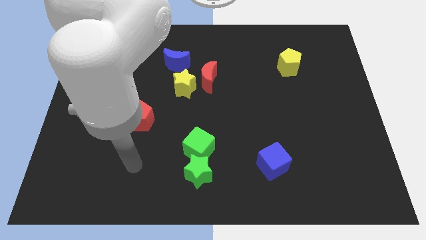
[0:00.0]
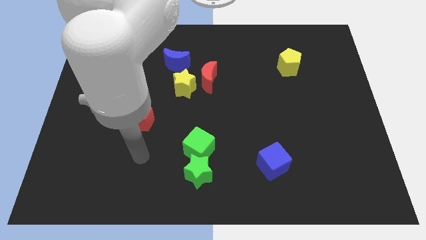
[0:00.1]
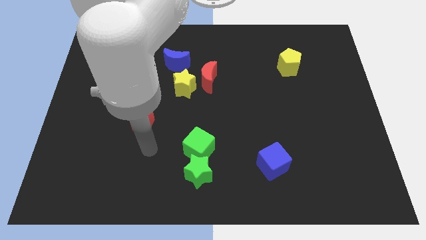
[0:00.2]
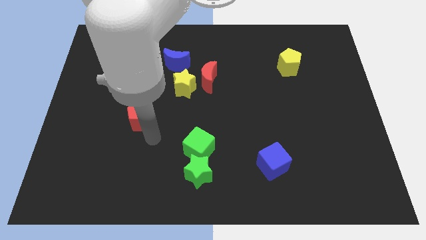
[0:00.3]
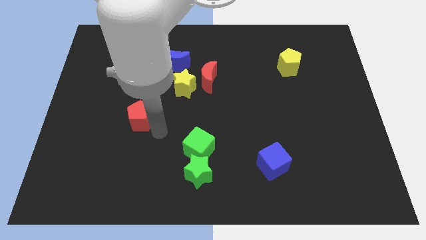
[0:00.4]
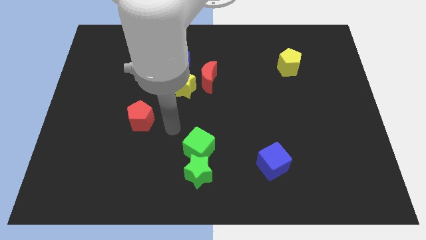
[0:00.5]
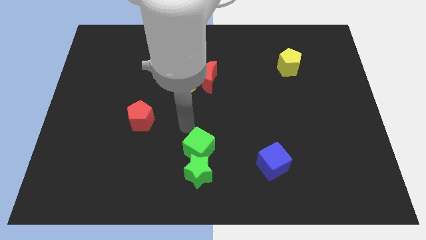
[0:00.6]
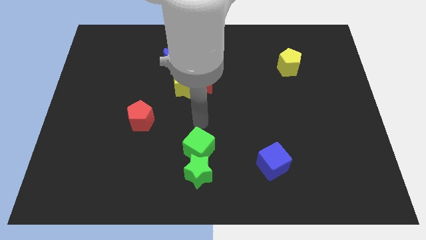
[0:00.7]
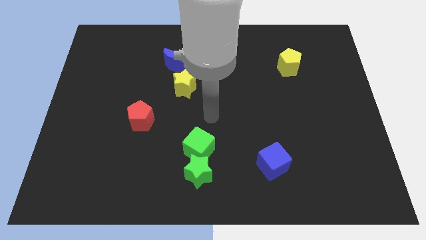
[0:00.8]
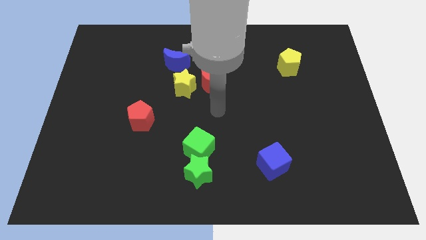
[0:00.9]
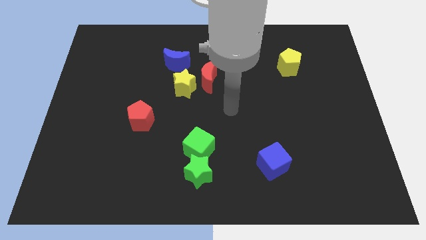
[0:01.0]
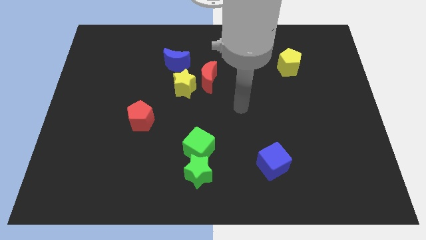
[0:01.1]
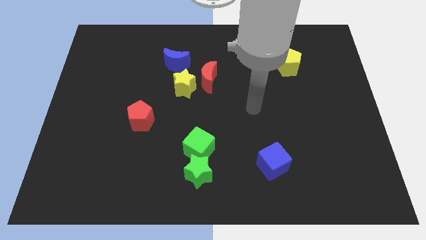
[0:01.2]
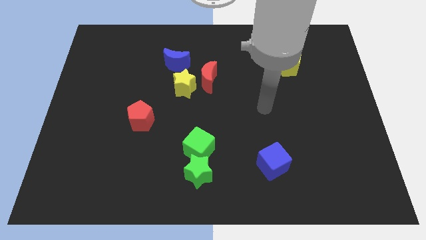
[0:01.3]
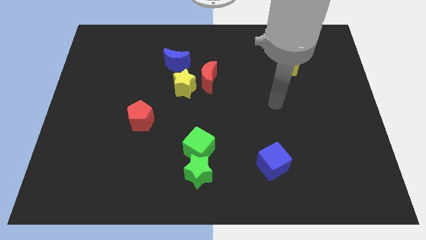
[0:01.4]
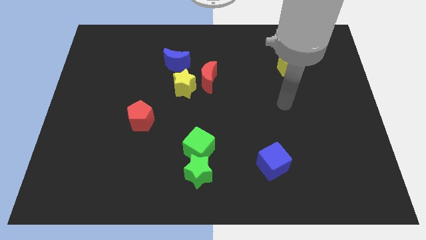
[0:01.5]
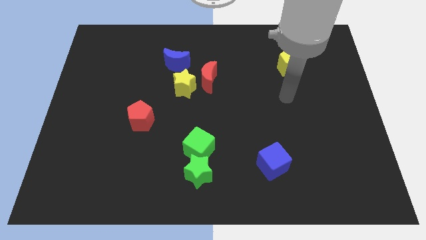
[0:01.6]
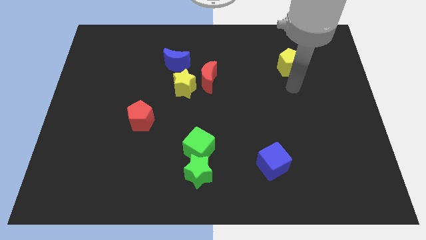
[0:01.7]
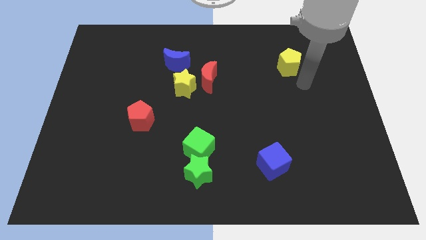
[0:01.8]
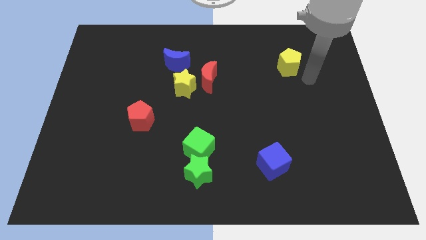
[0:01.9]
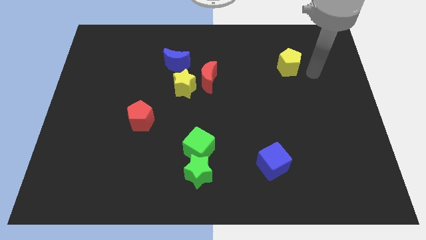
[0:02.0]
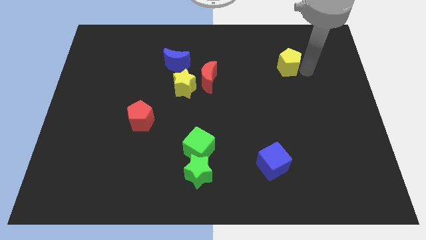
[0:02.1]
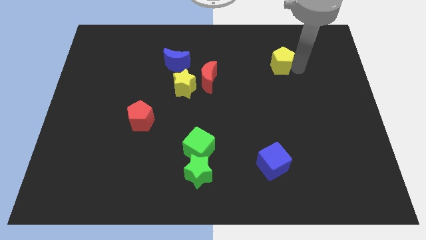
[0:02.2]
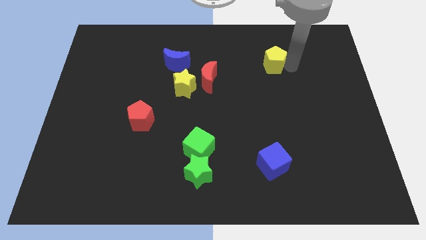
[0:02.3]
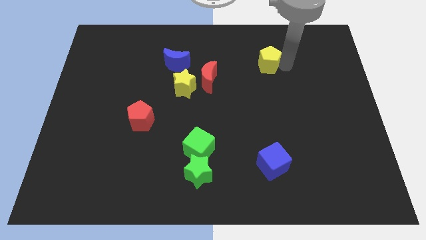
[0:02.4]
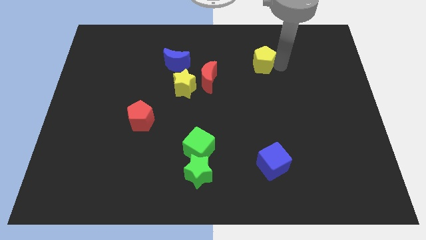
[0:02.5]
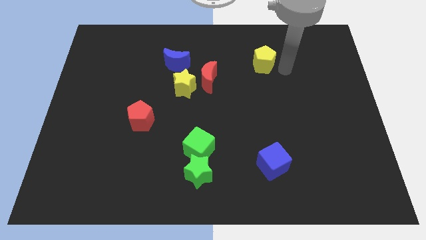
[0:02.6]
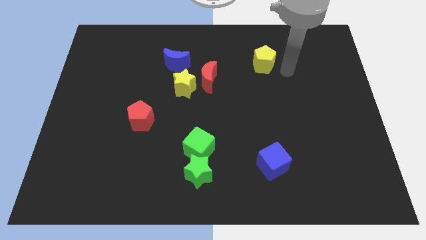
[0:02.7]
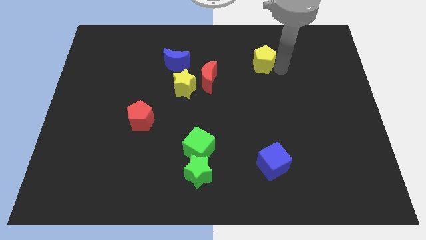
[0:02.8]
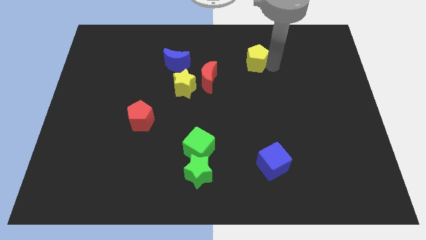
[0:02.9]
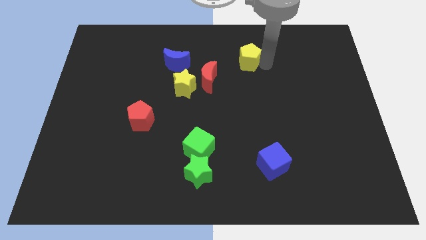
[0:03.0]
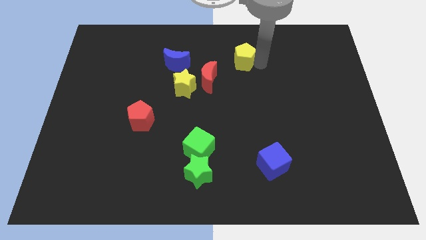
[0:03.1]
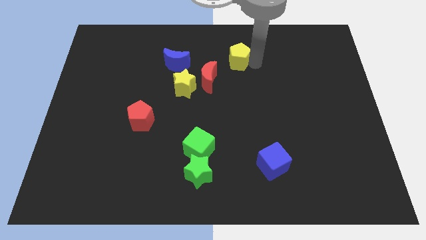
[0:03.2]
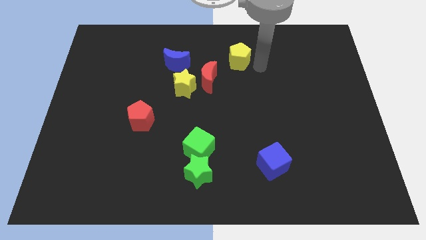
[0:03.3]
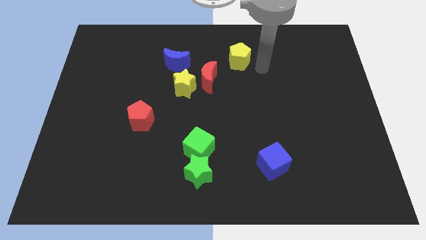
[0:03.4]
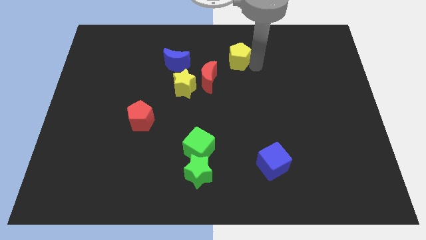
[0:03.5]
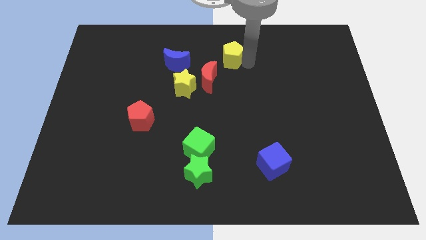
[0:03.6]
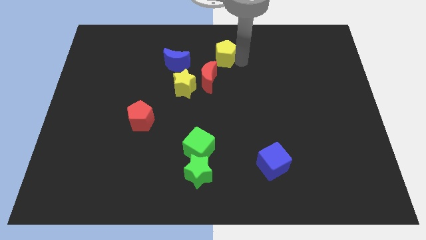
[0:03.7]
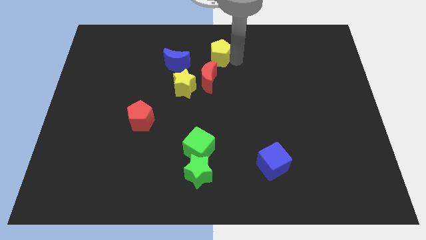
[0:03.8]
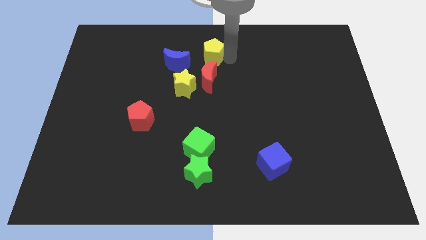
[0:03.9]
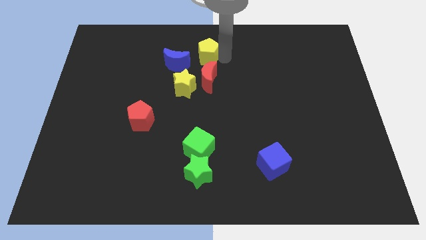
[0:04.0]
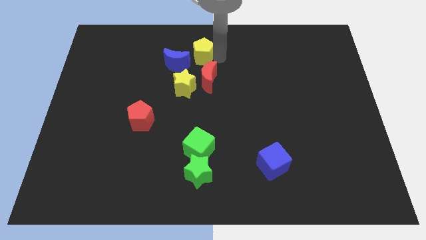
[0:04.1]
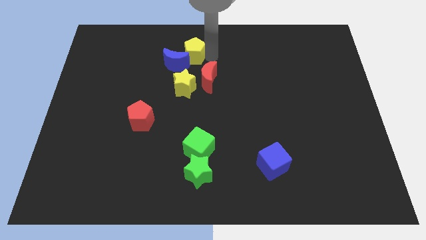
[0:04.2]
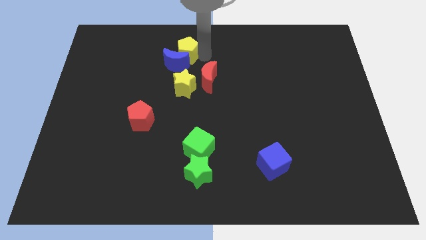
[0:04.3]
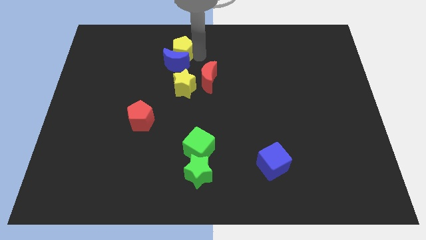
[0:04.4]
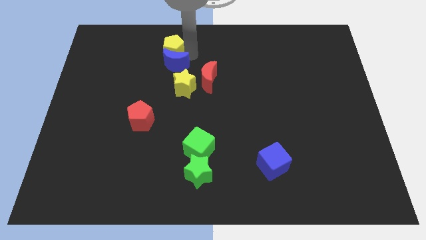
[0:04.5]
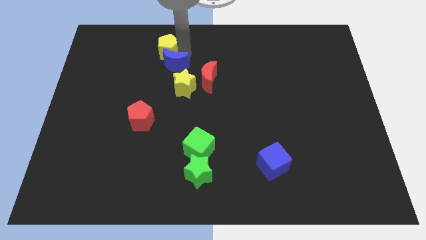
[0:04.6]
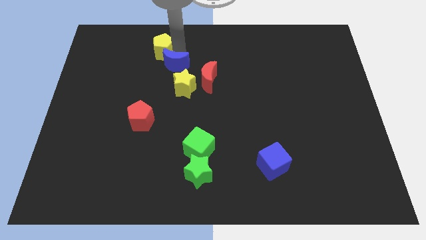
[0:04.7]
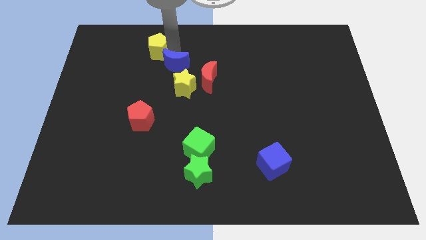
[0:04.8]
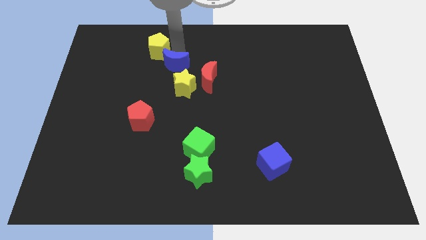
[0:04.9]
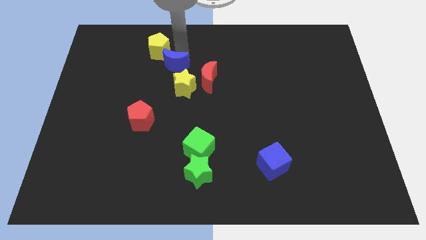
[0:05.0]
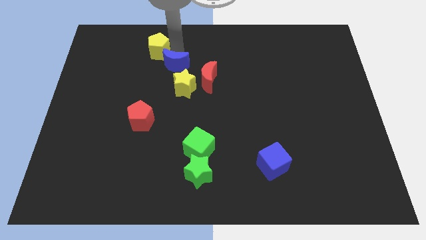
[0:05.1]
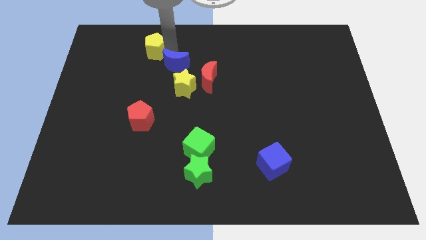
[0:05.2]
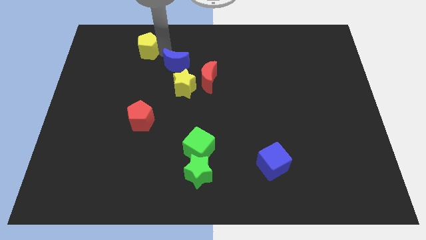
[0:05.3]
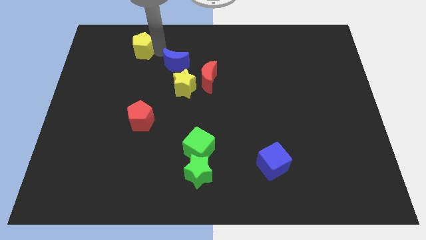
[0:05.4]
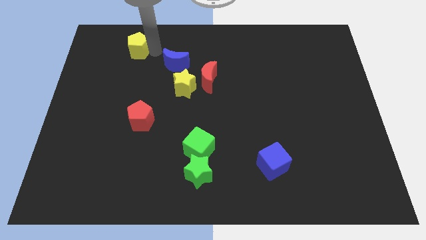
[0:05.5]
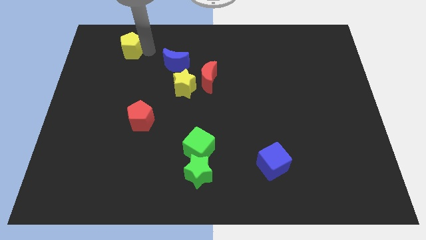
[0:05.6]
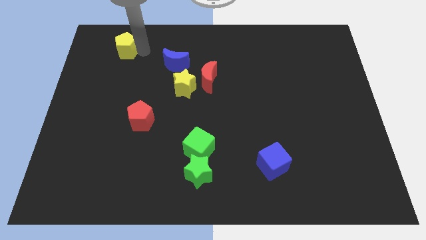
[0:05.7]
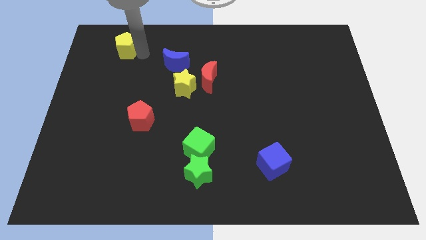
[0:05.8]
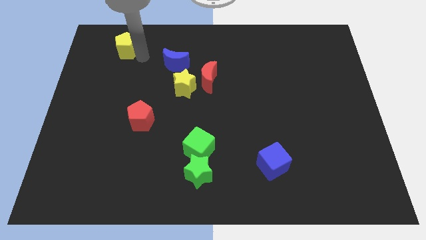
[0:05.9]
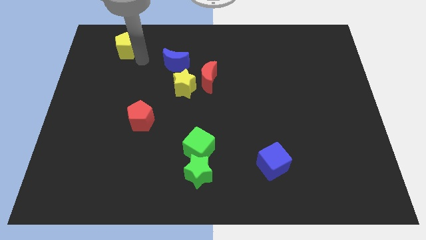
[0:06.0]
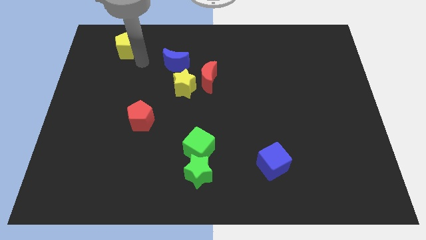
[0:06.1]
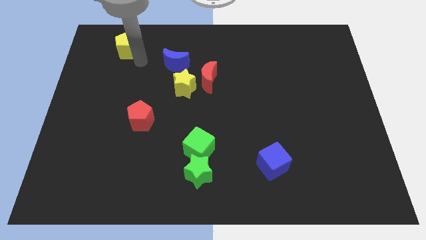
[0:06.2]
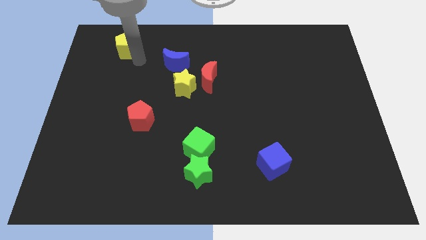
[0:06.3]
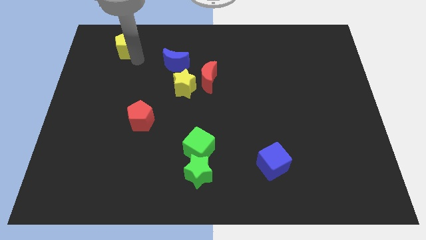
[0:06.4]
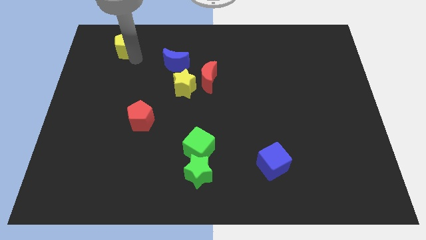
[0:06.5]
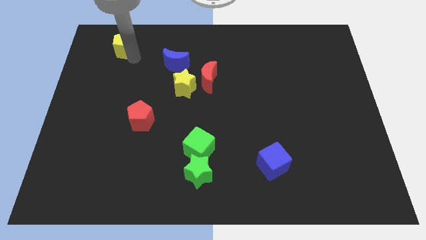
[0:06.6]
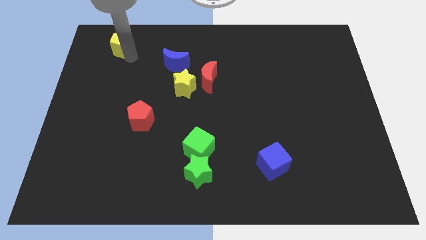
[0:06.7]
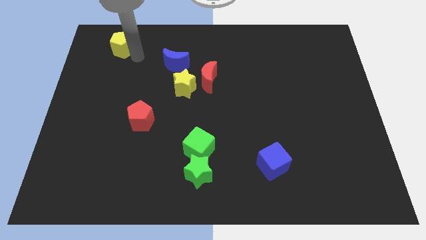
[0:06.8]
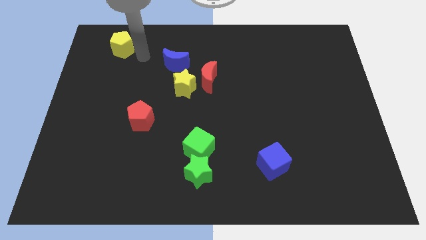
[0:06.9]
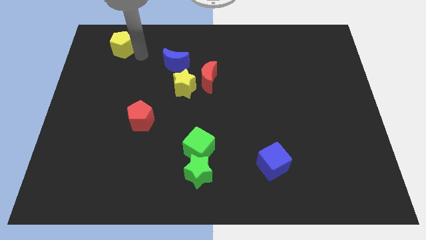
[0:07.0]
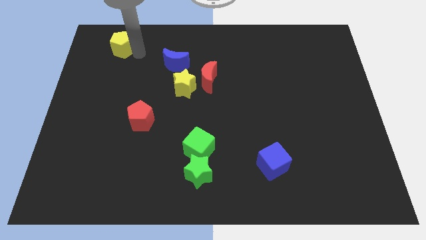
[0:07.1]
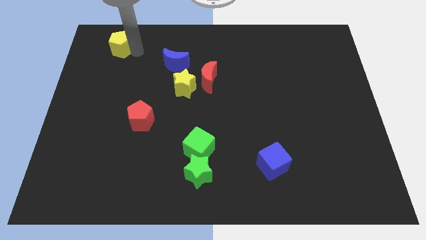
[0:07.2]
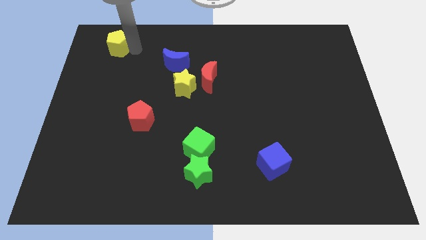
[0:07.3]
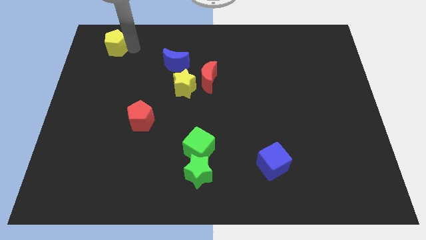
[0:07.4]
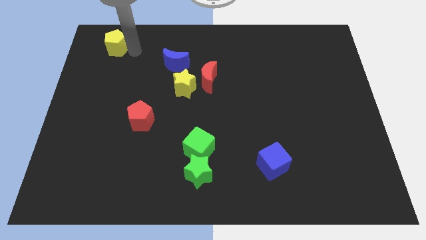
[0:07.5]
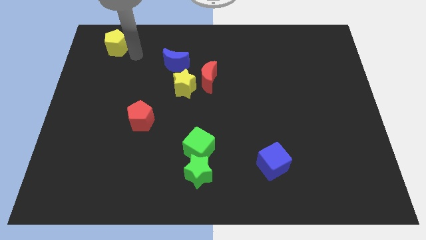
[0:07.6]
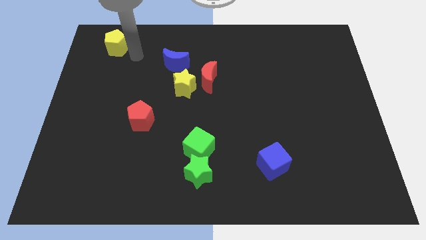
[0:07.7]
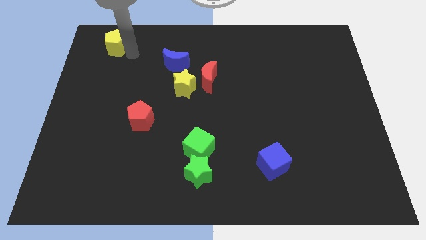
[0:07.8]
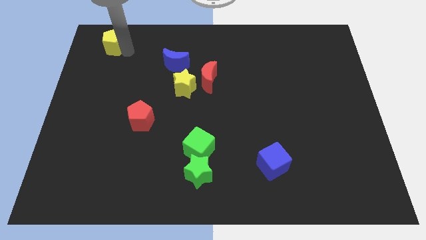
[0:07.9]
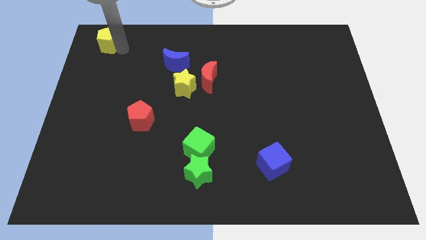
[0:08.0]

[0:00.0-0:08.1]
slide the yellow pentagon to the upper left corner
